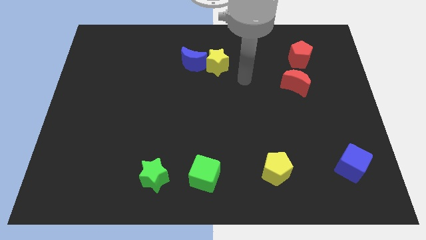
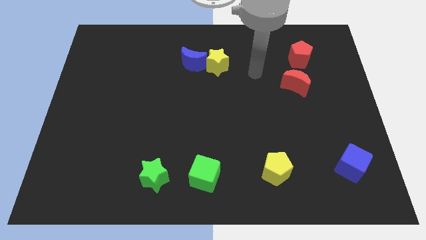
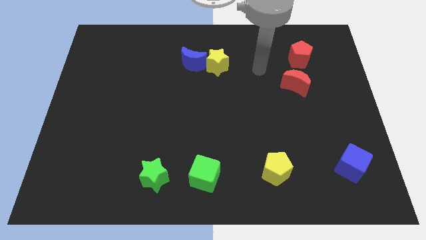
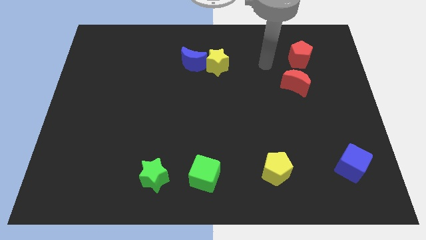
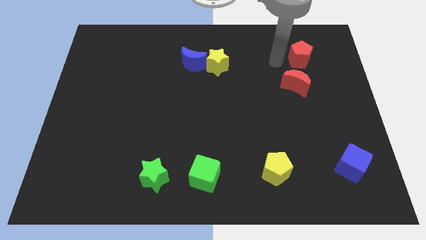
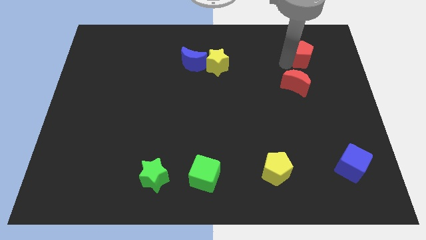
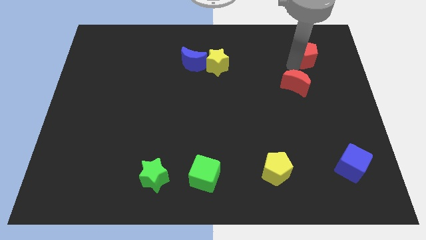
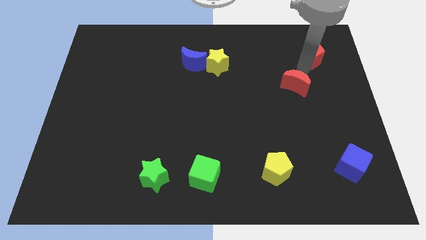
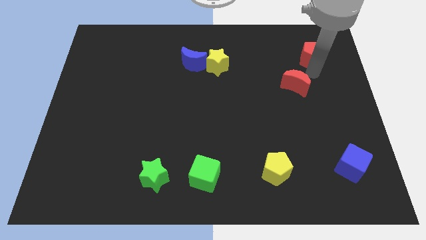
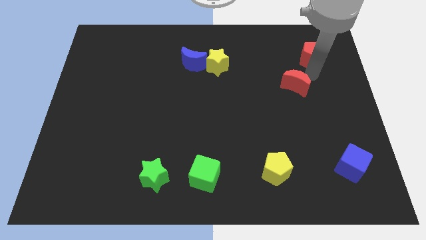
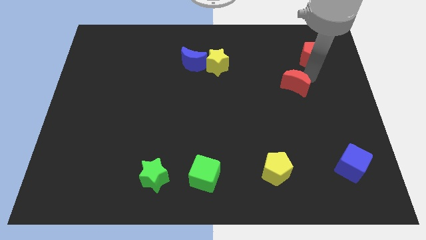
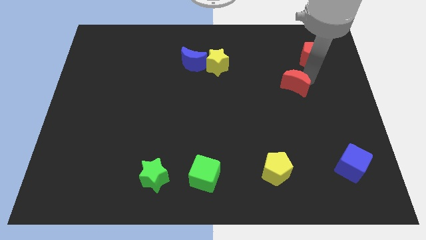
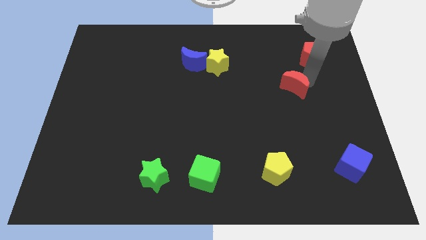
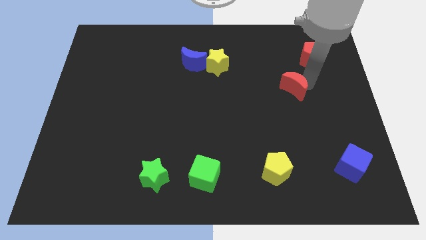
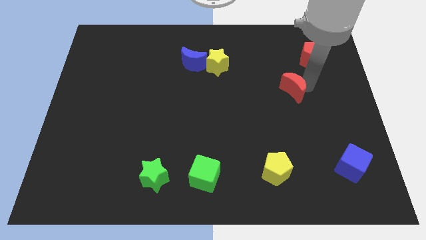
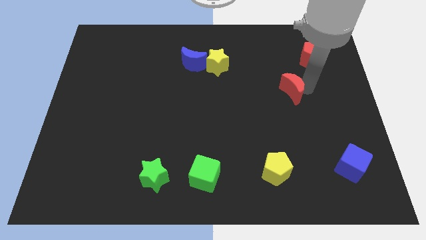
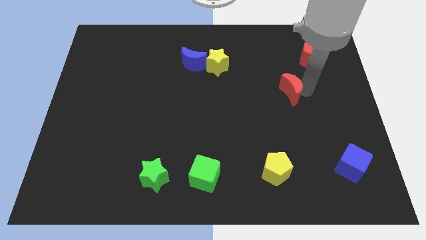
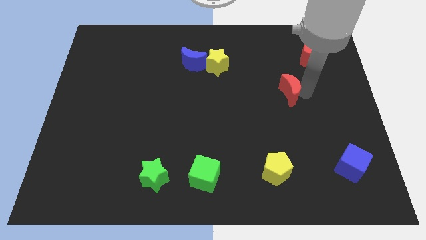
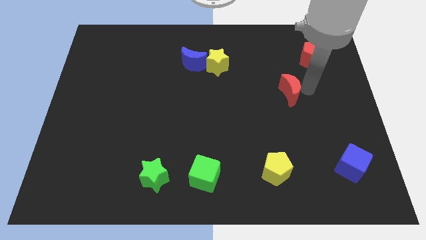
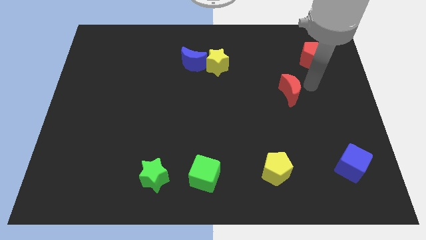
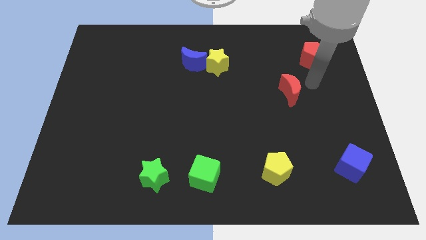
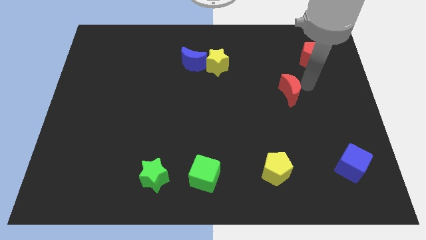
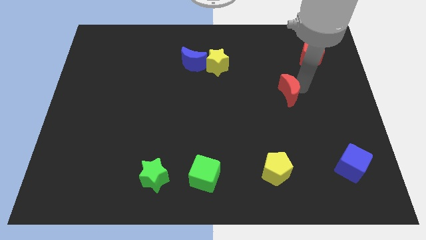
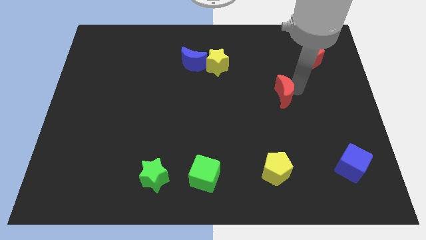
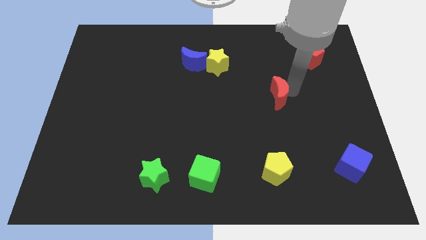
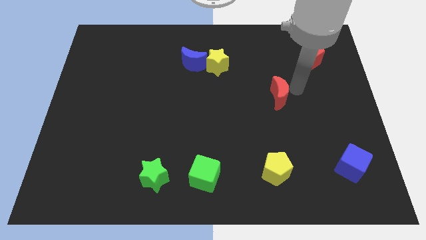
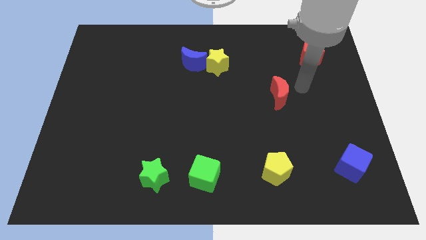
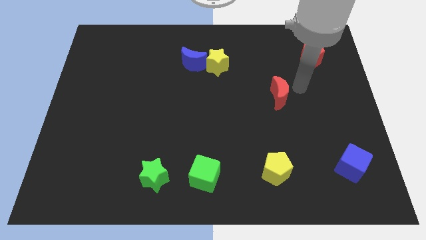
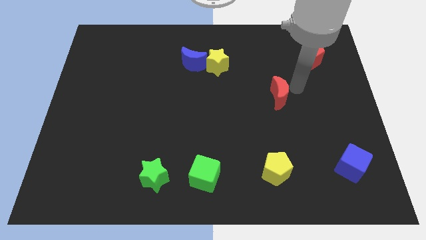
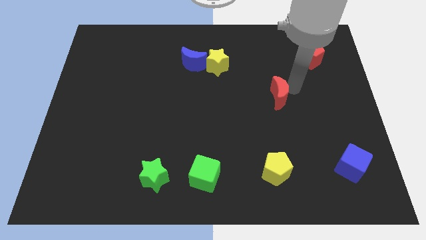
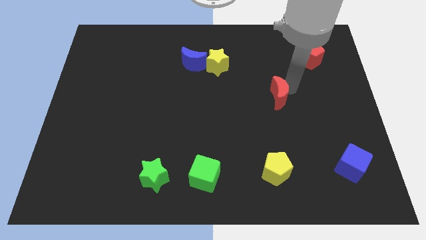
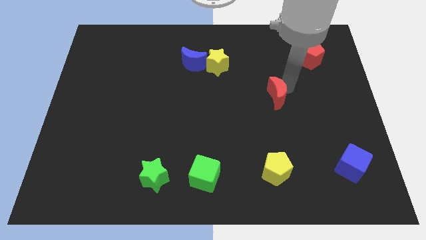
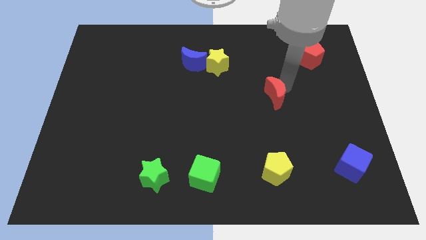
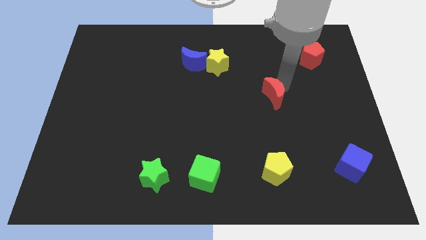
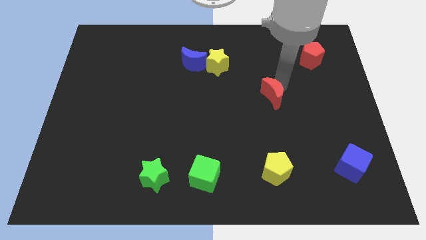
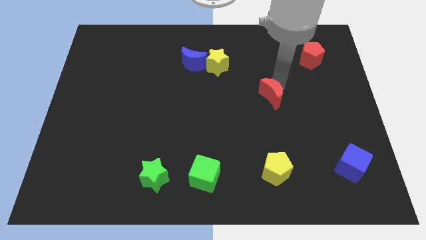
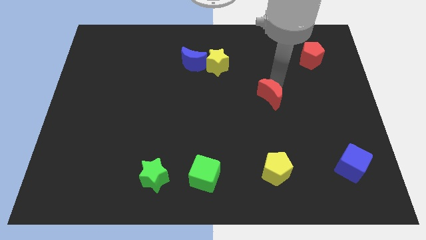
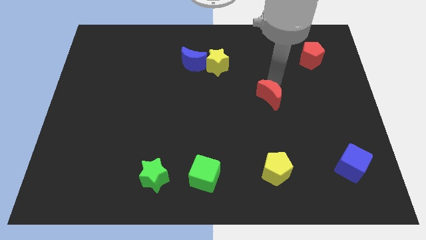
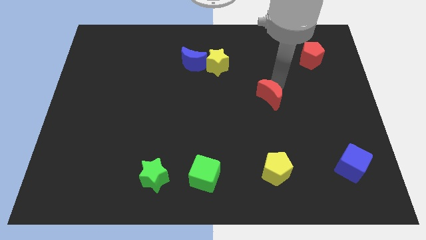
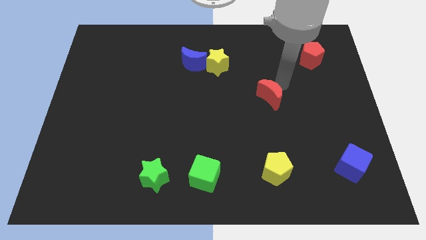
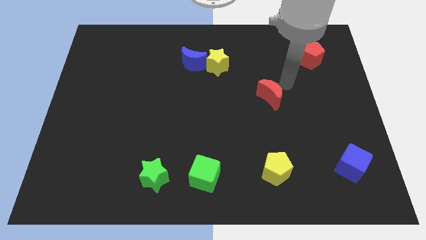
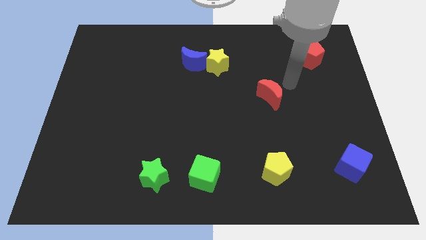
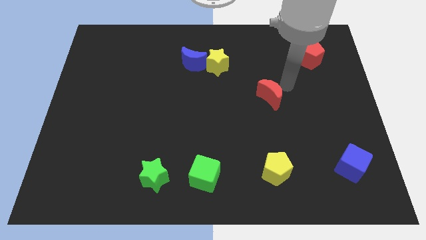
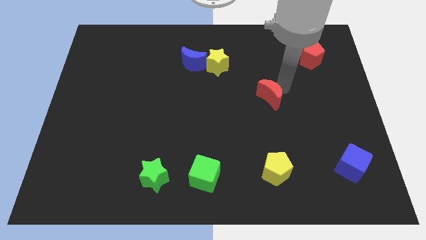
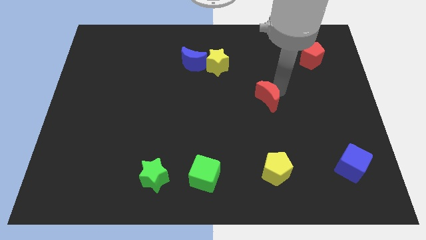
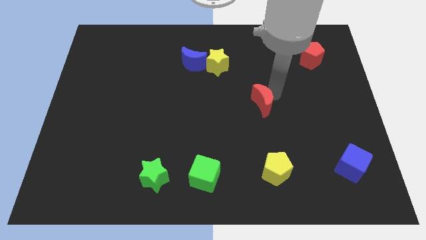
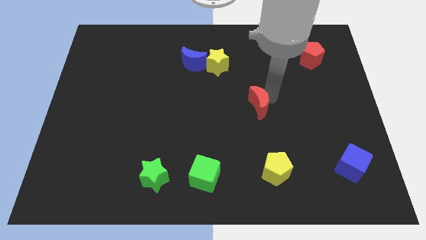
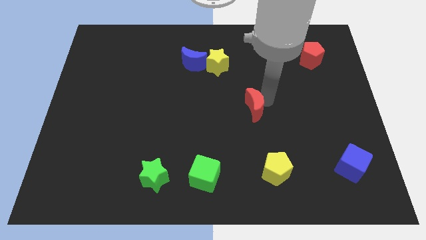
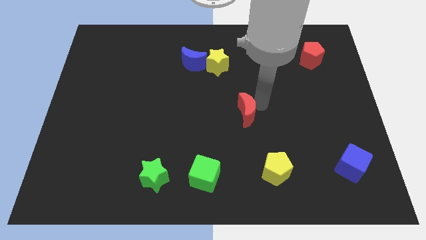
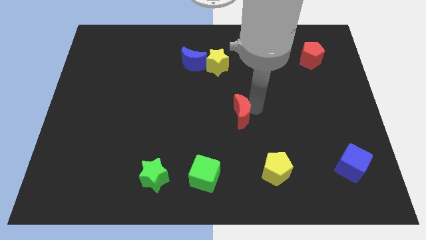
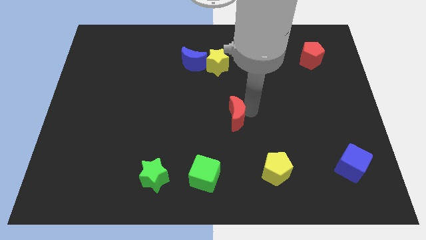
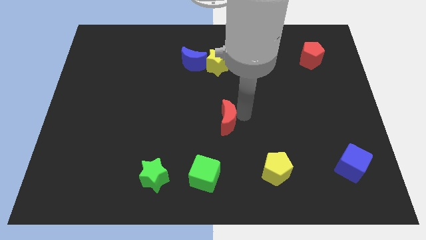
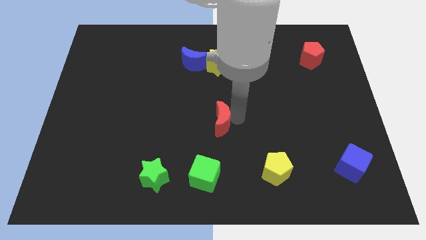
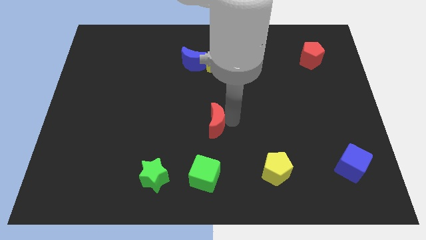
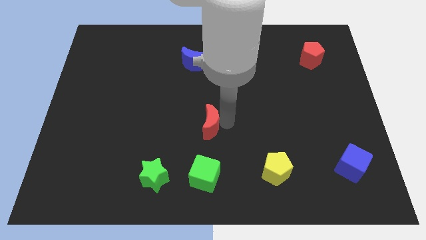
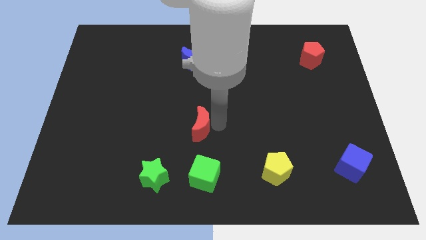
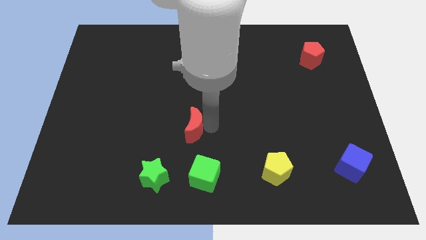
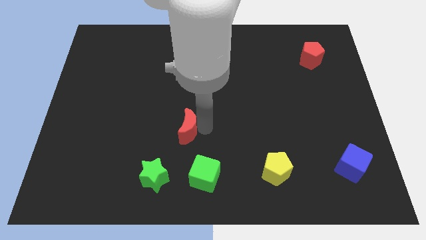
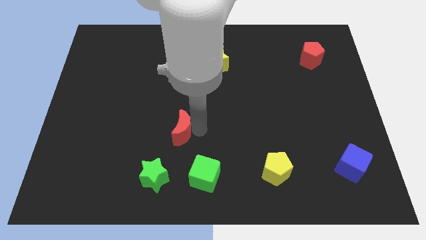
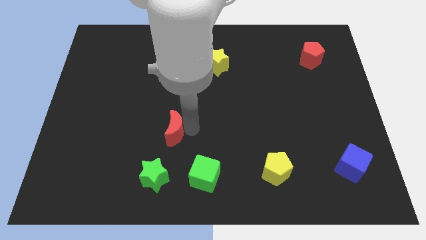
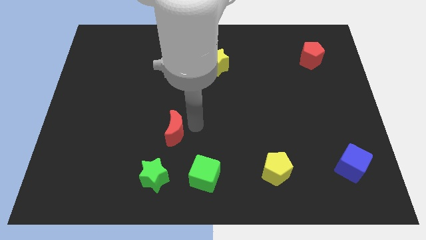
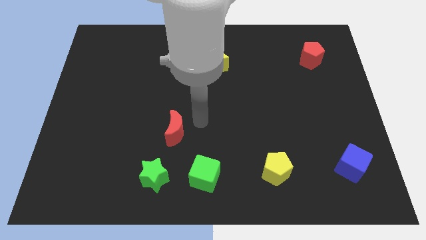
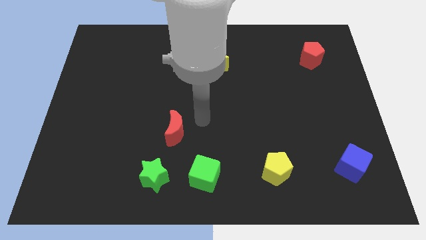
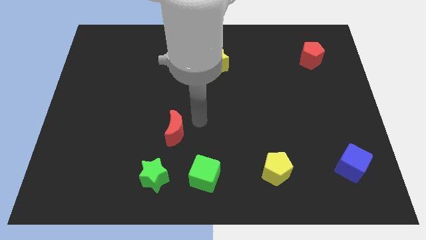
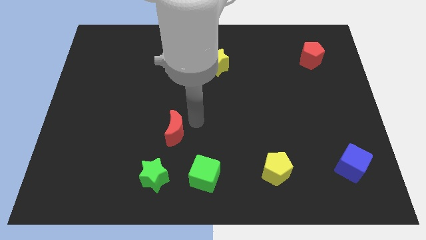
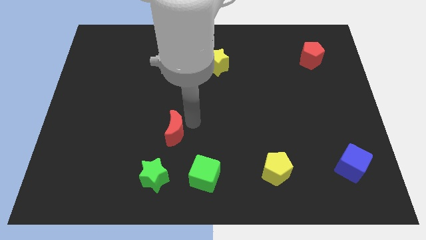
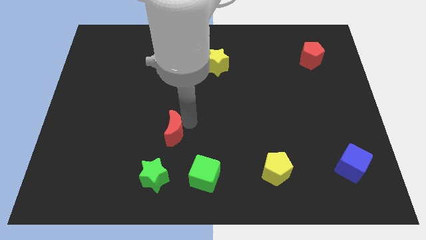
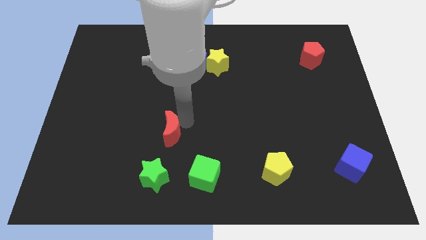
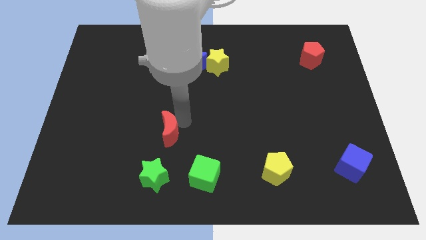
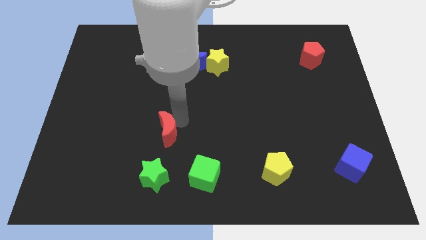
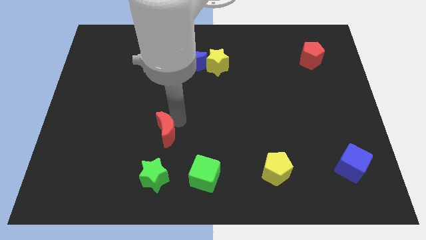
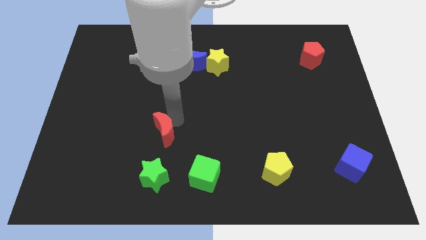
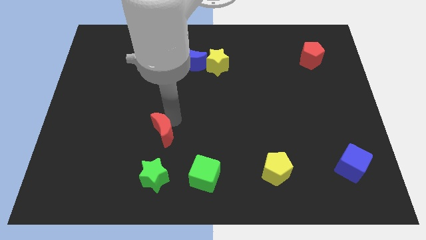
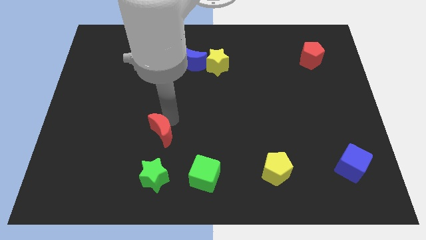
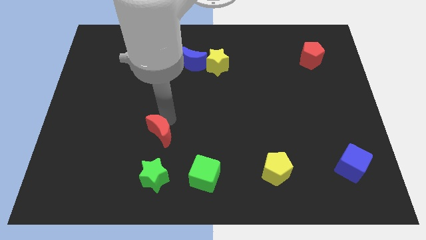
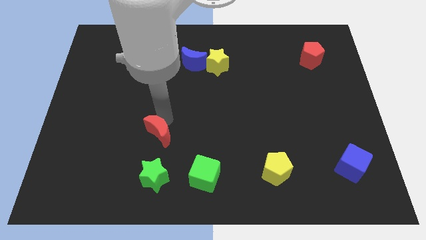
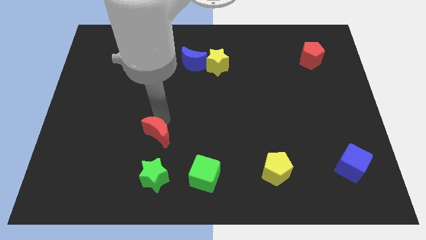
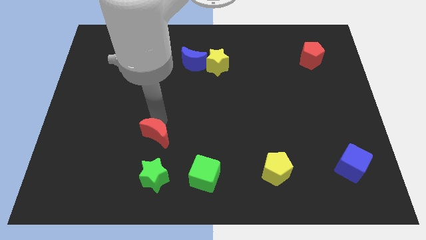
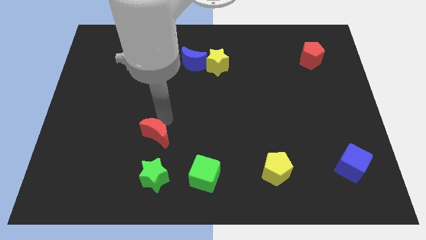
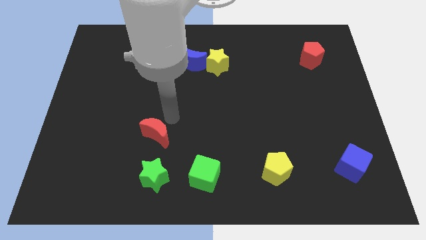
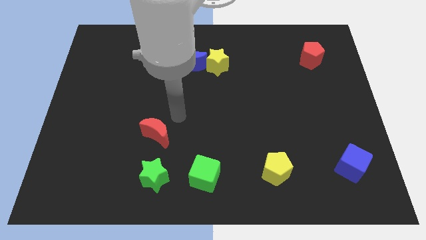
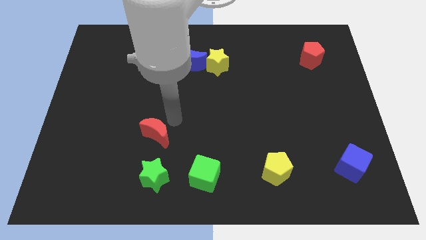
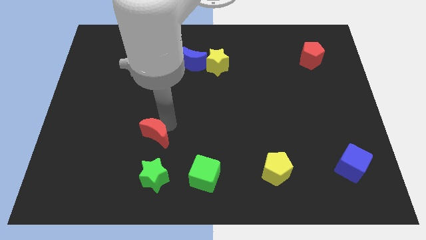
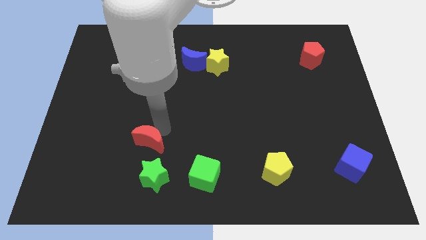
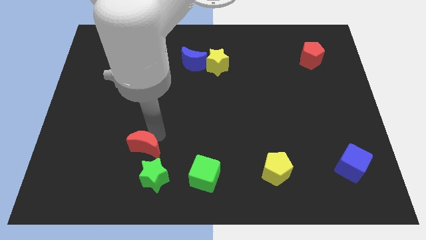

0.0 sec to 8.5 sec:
slide the red moon to the top left side of the green star
